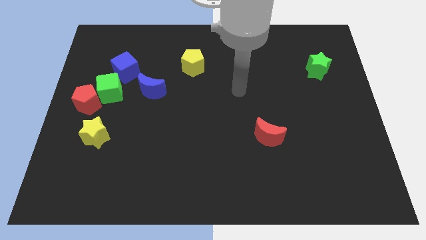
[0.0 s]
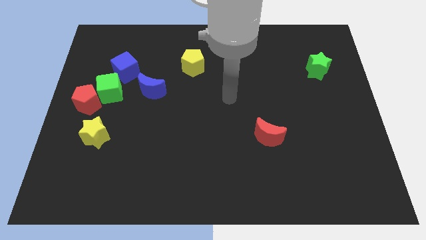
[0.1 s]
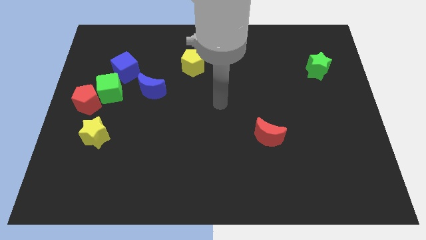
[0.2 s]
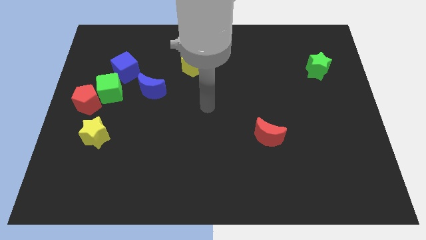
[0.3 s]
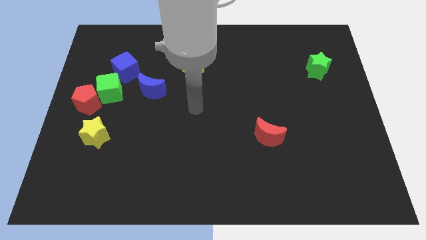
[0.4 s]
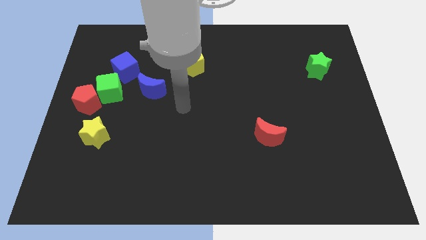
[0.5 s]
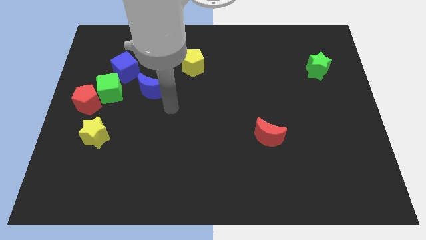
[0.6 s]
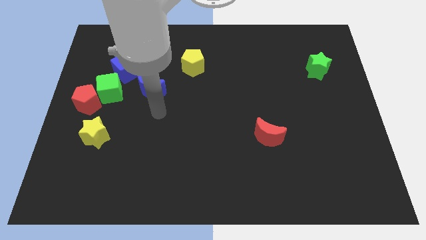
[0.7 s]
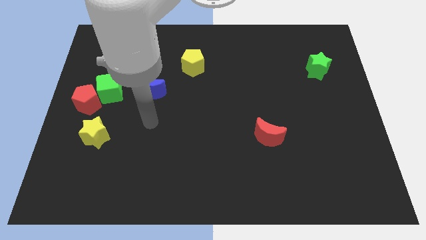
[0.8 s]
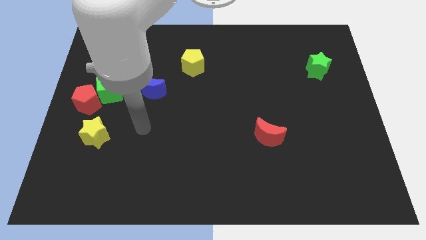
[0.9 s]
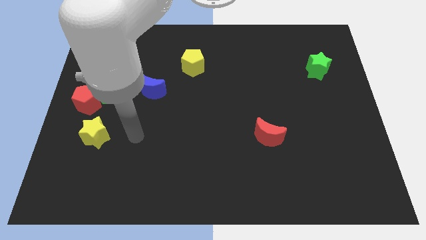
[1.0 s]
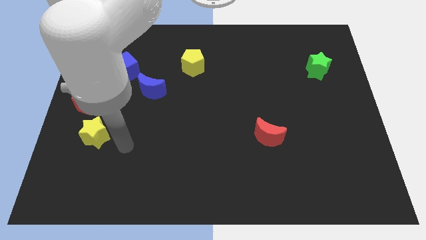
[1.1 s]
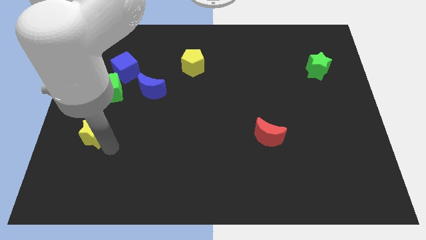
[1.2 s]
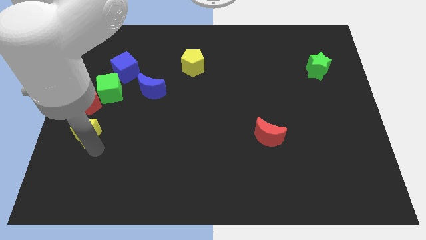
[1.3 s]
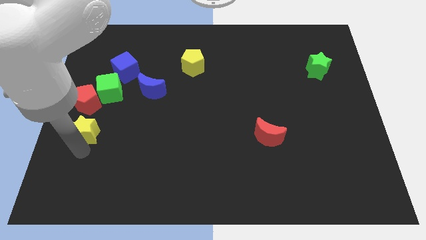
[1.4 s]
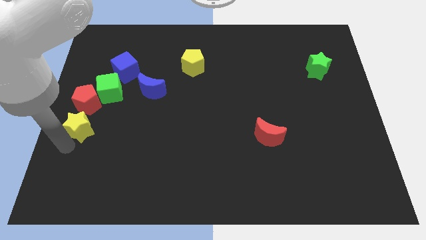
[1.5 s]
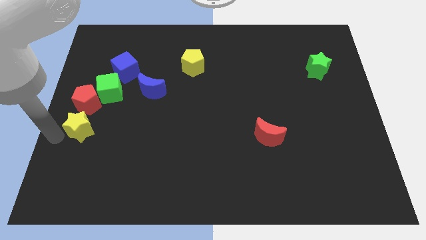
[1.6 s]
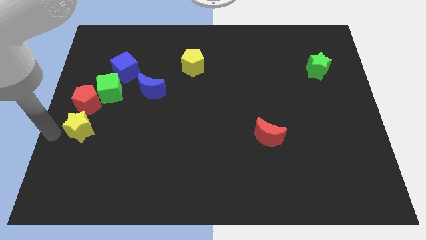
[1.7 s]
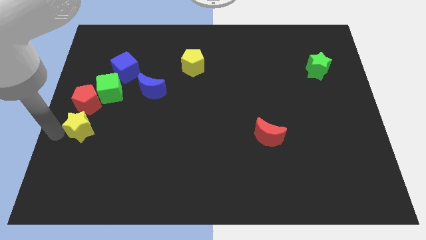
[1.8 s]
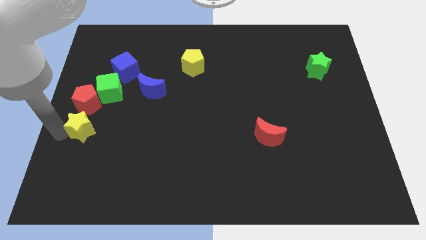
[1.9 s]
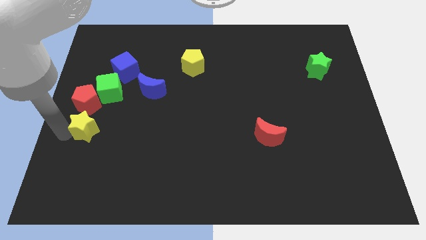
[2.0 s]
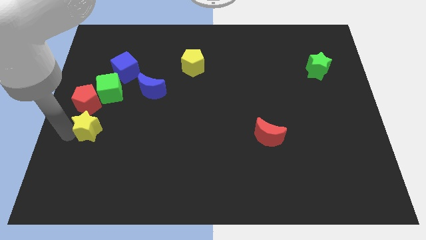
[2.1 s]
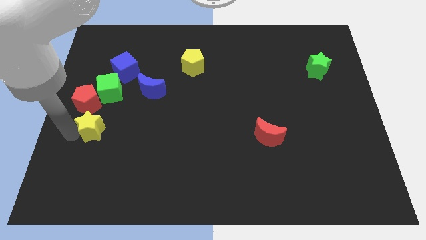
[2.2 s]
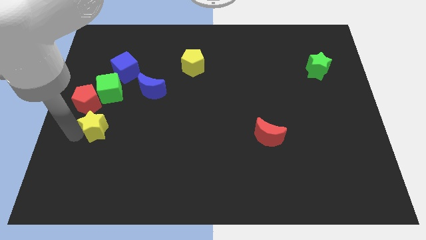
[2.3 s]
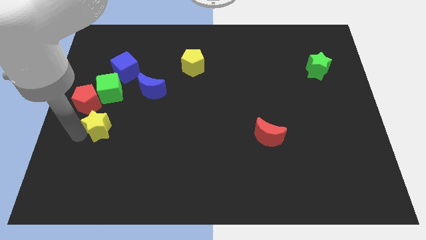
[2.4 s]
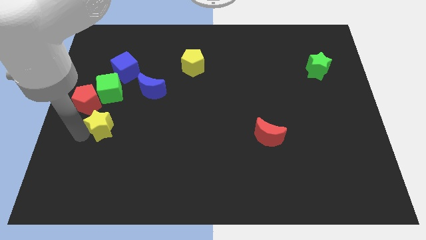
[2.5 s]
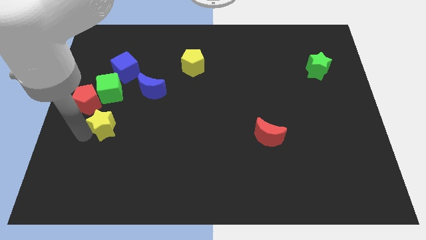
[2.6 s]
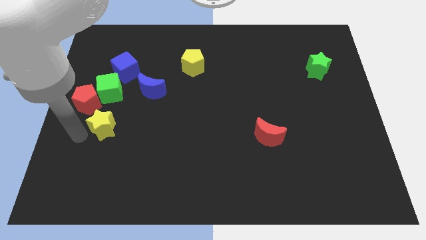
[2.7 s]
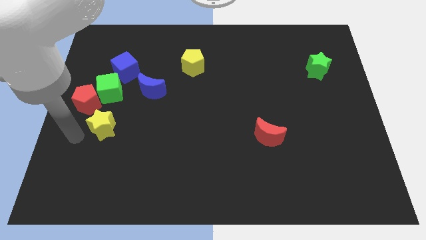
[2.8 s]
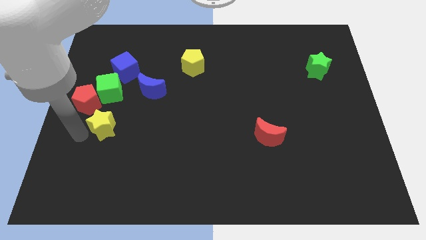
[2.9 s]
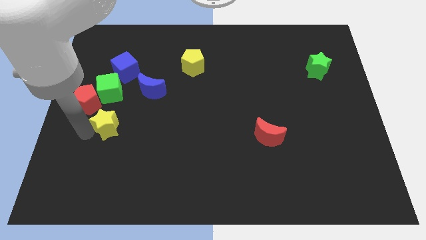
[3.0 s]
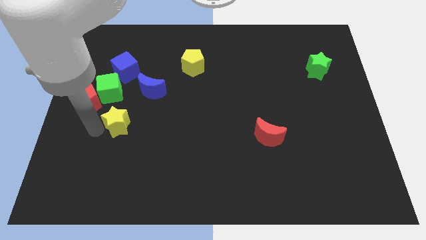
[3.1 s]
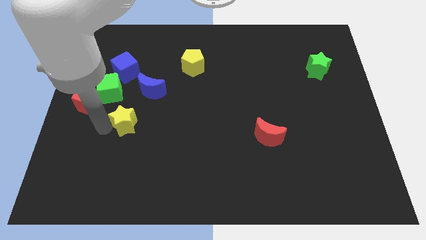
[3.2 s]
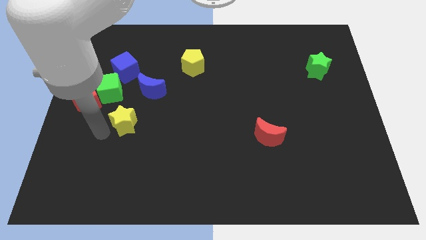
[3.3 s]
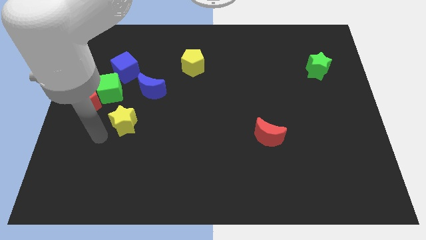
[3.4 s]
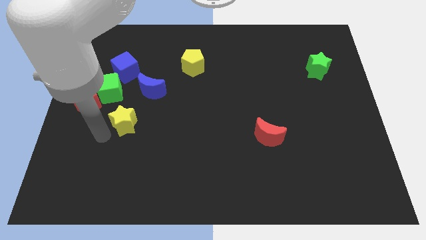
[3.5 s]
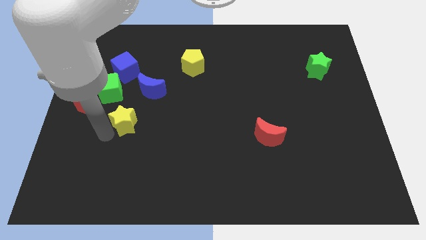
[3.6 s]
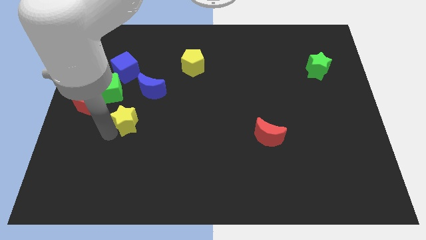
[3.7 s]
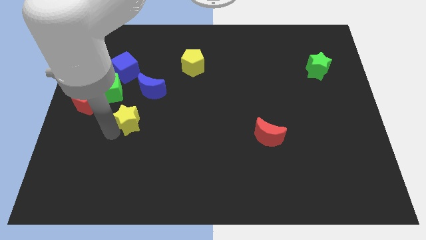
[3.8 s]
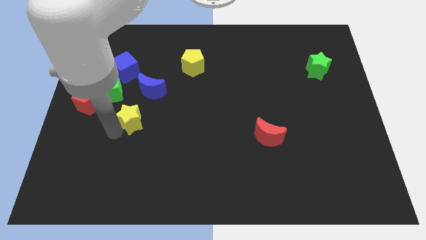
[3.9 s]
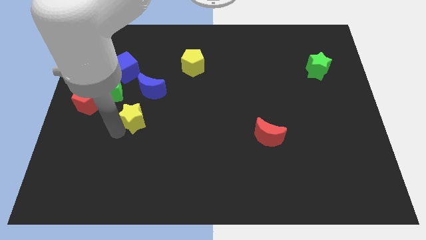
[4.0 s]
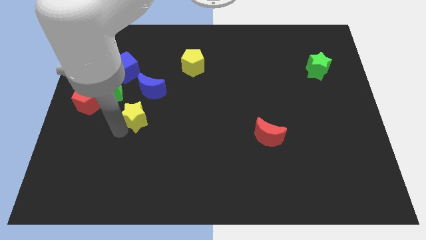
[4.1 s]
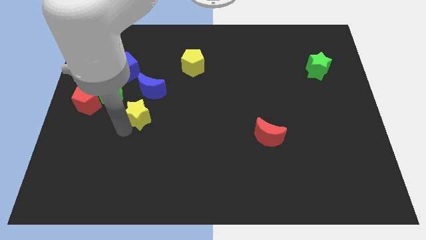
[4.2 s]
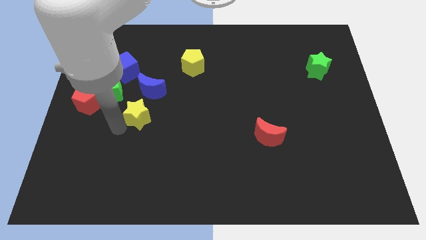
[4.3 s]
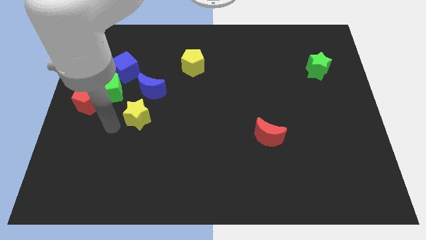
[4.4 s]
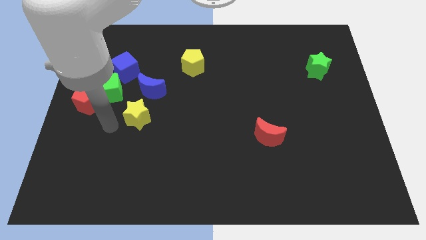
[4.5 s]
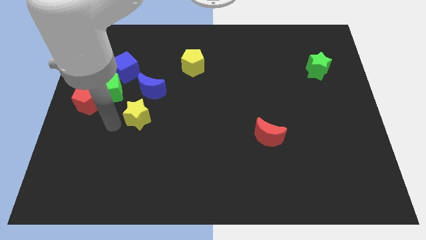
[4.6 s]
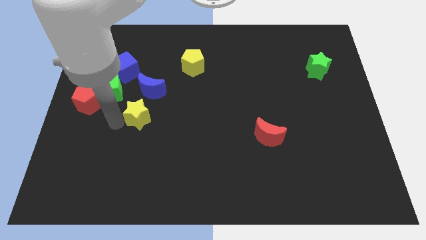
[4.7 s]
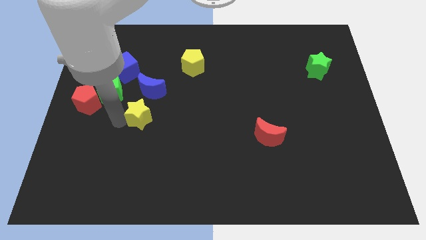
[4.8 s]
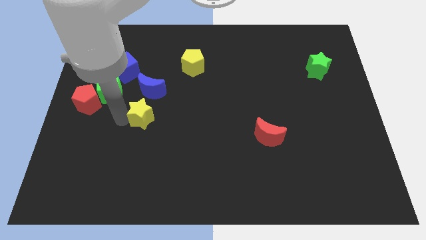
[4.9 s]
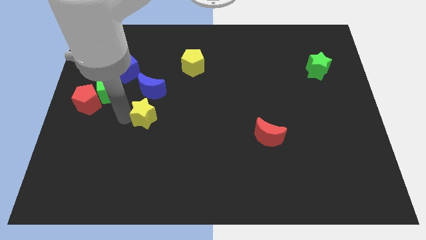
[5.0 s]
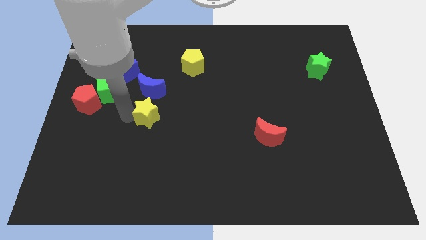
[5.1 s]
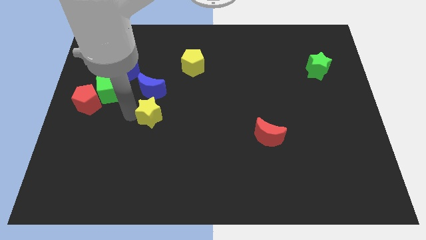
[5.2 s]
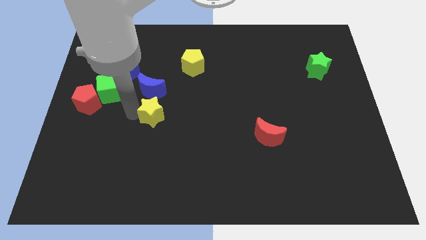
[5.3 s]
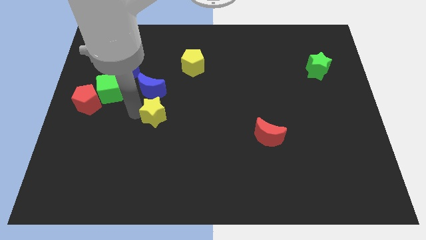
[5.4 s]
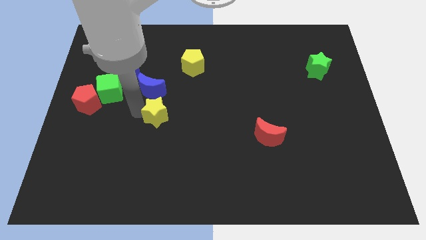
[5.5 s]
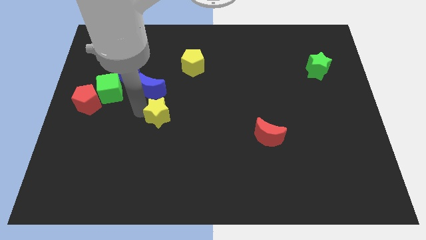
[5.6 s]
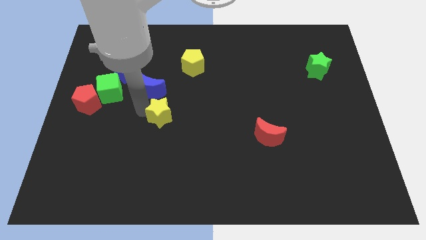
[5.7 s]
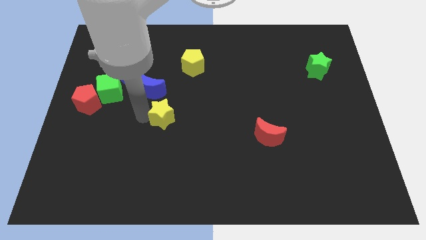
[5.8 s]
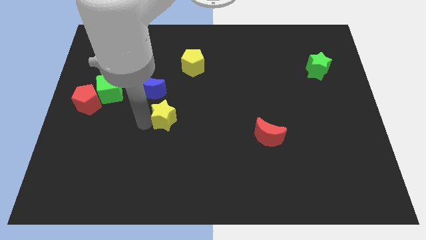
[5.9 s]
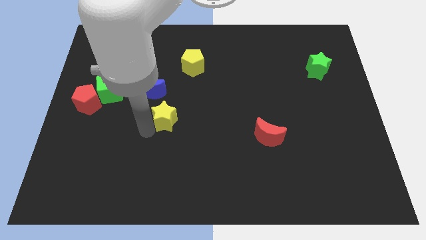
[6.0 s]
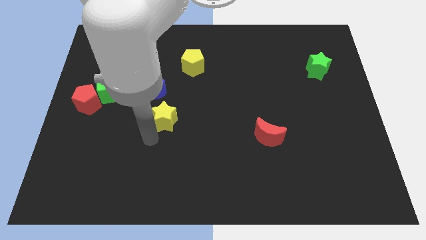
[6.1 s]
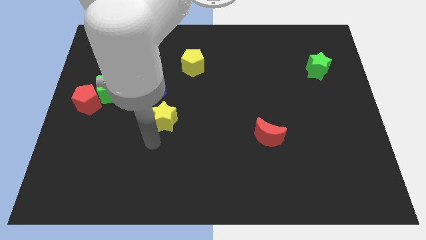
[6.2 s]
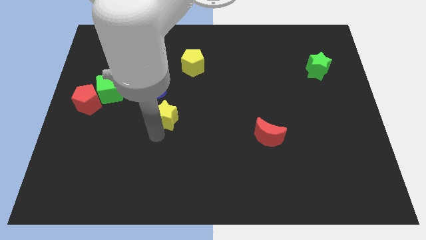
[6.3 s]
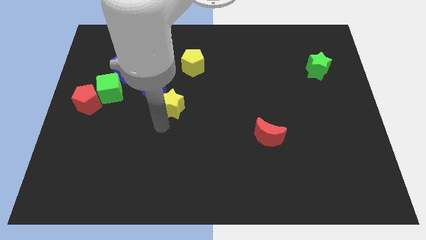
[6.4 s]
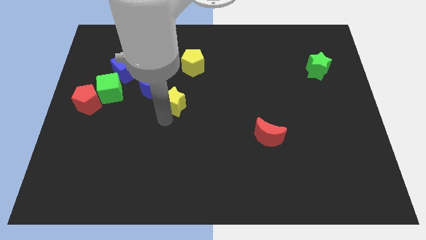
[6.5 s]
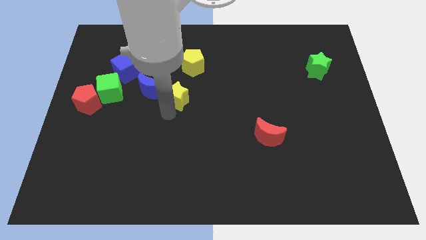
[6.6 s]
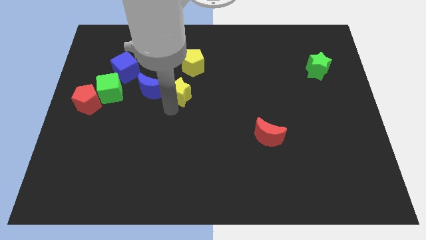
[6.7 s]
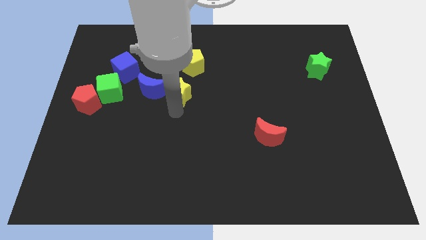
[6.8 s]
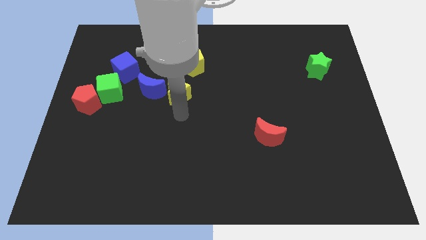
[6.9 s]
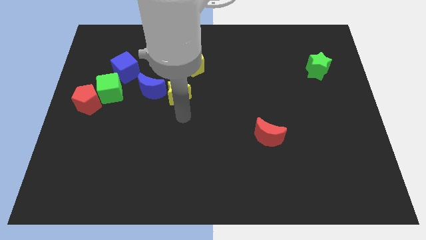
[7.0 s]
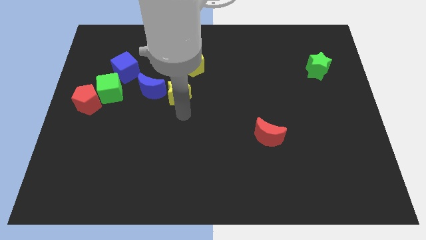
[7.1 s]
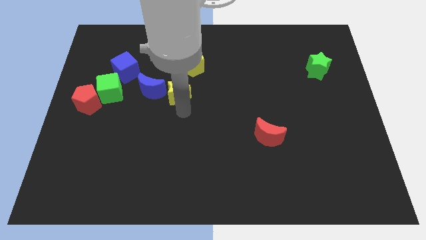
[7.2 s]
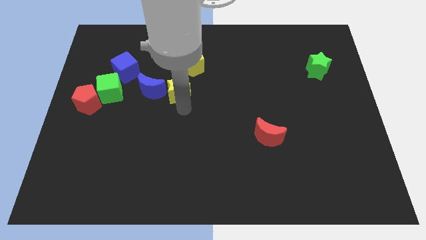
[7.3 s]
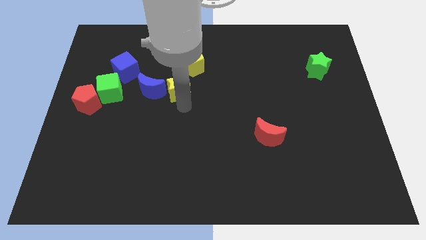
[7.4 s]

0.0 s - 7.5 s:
slide the yellow star to the top right of the blue moon
